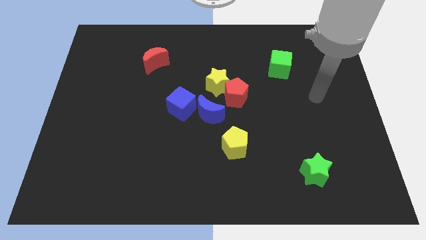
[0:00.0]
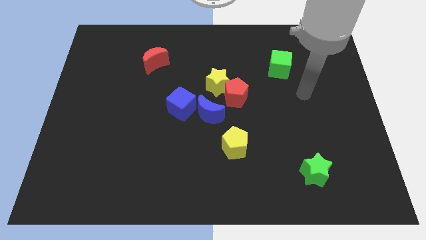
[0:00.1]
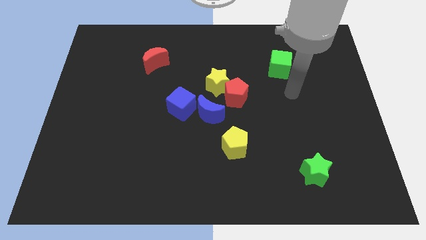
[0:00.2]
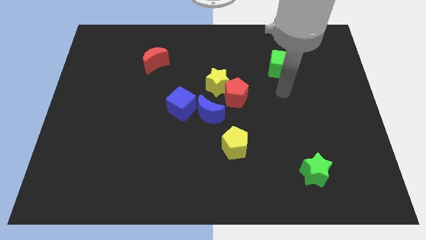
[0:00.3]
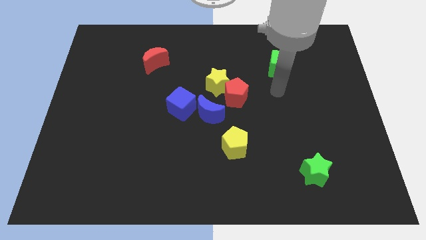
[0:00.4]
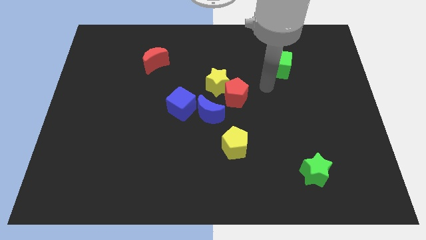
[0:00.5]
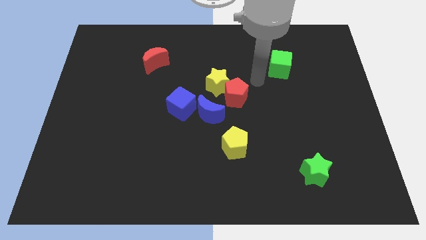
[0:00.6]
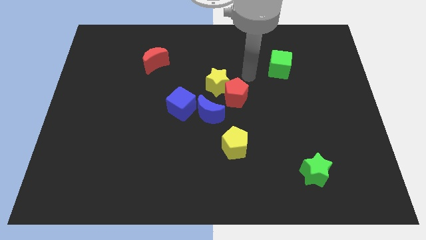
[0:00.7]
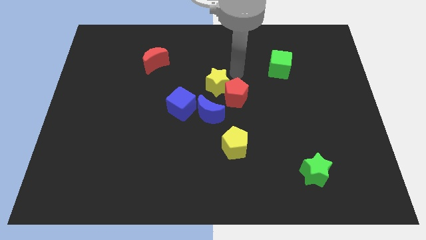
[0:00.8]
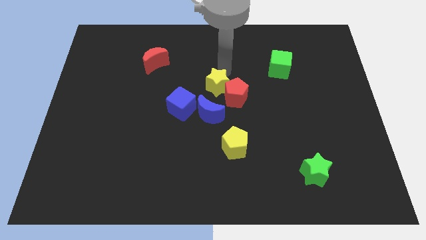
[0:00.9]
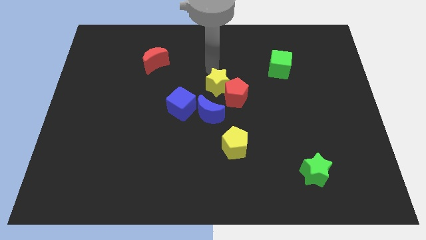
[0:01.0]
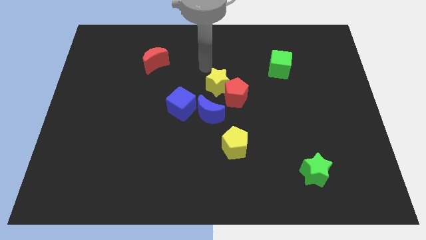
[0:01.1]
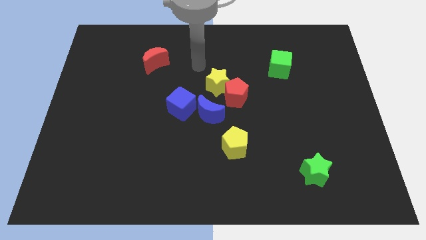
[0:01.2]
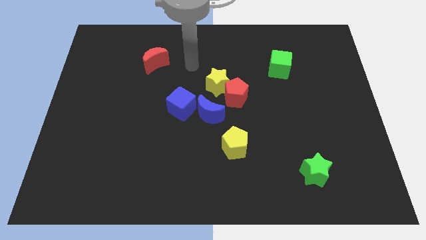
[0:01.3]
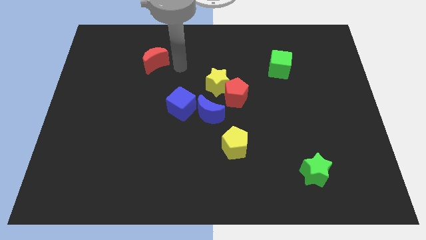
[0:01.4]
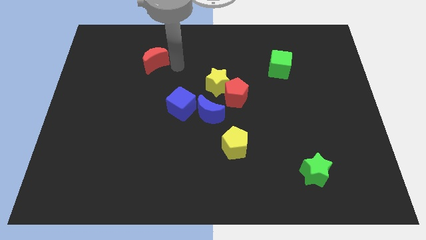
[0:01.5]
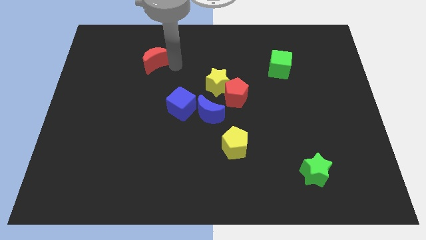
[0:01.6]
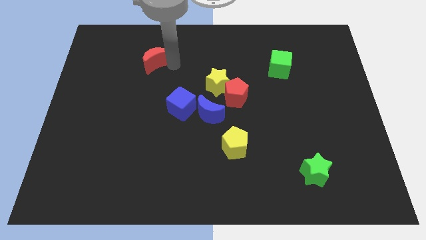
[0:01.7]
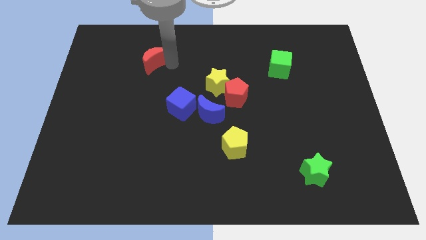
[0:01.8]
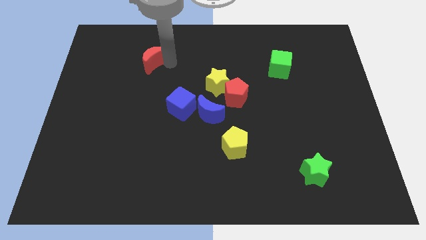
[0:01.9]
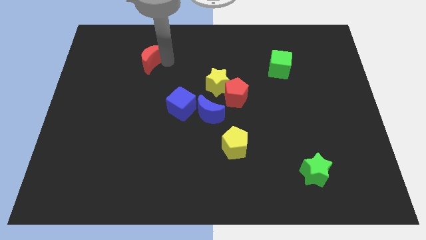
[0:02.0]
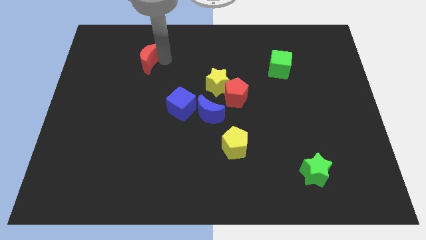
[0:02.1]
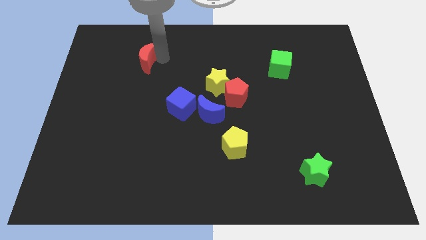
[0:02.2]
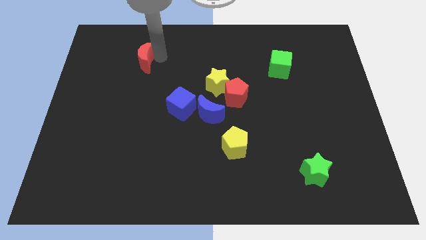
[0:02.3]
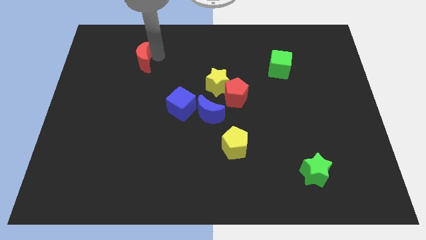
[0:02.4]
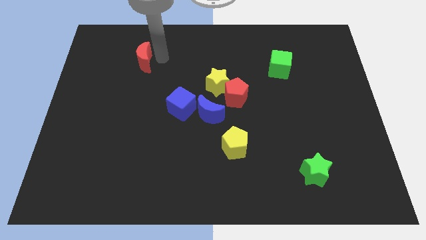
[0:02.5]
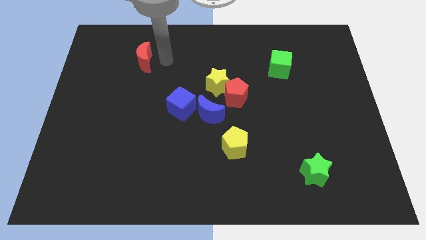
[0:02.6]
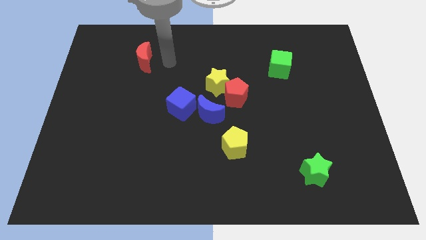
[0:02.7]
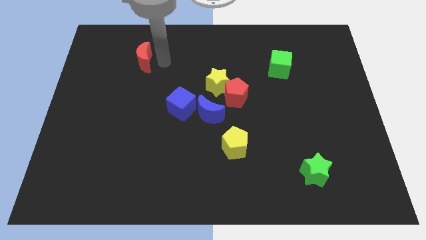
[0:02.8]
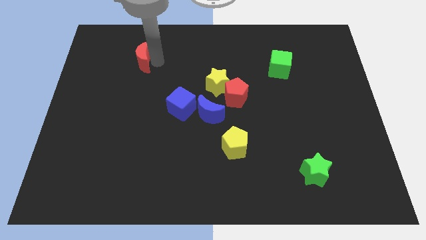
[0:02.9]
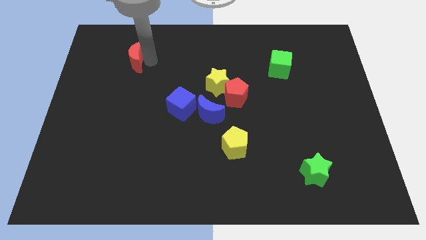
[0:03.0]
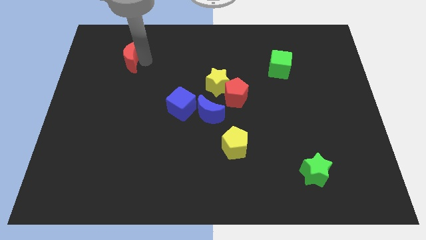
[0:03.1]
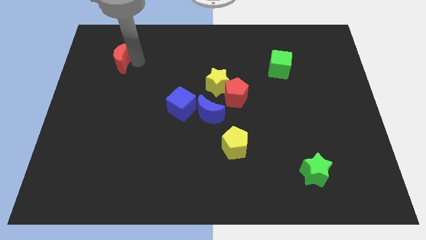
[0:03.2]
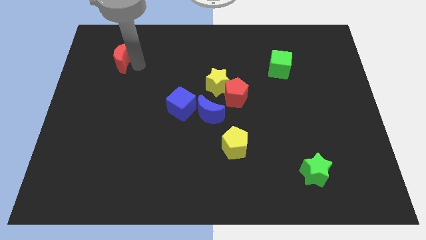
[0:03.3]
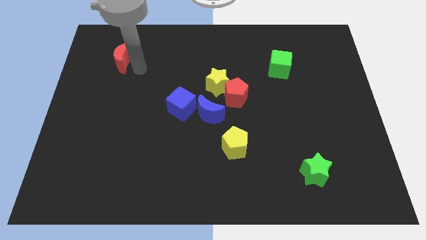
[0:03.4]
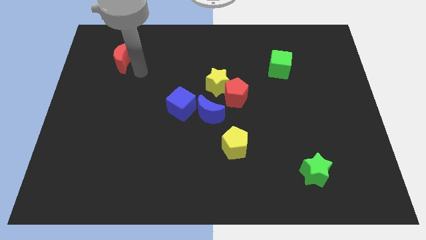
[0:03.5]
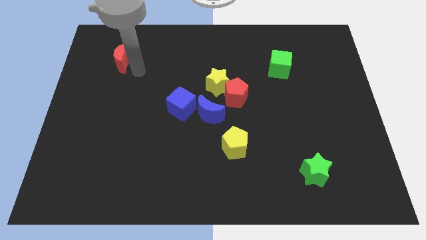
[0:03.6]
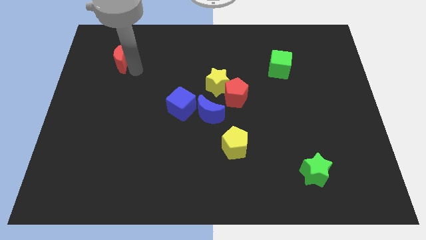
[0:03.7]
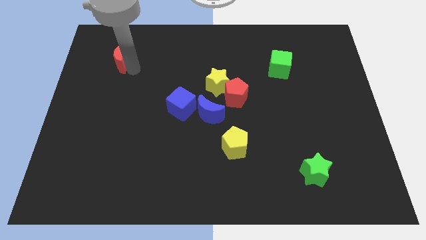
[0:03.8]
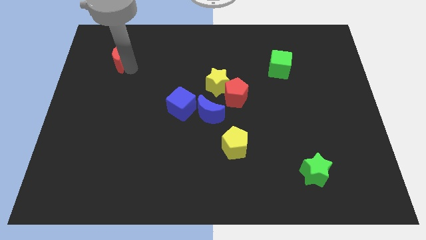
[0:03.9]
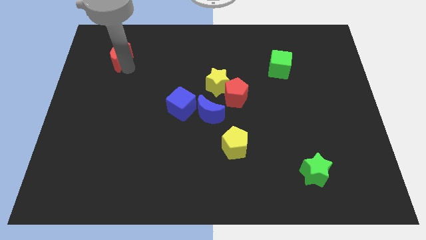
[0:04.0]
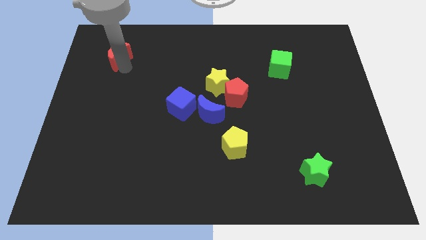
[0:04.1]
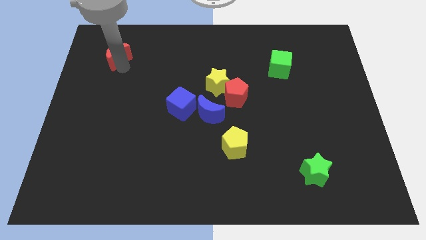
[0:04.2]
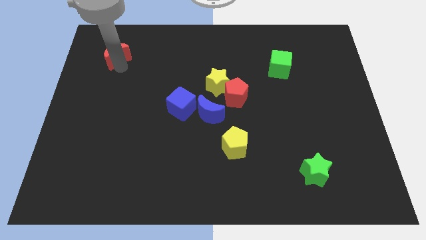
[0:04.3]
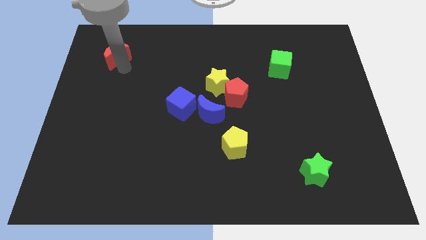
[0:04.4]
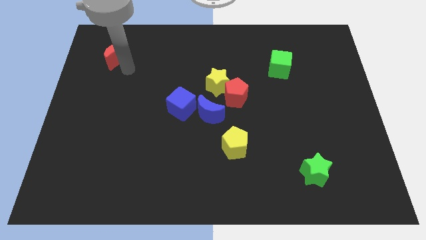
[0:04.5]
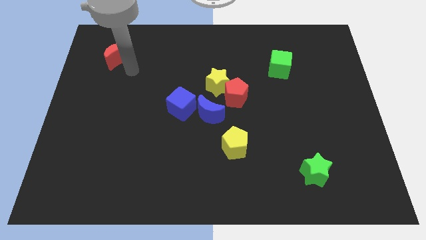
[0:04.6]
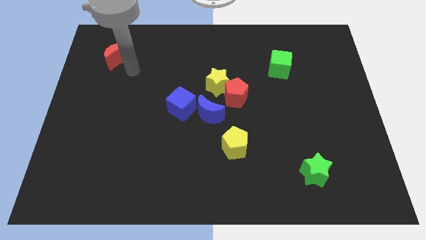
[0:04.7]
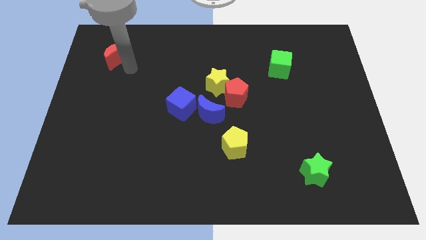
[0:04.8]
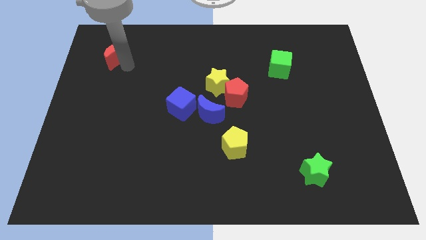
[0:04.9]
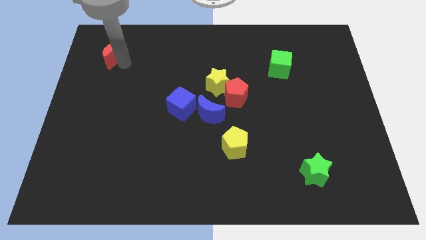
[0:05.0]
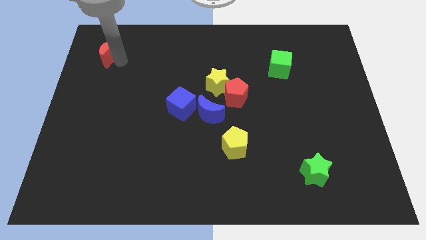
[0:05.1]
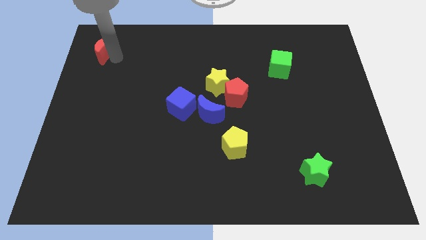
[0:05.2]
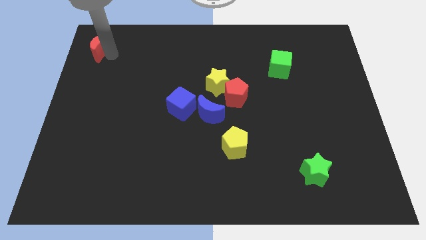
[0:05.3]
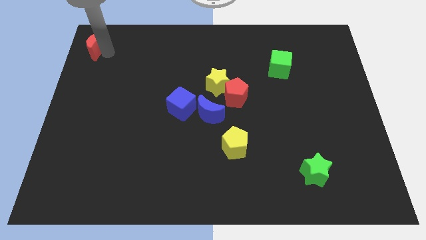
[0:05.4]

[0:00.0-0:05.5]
push the red moon to the upper left corner

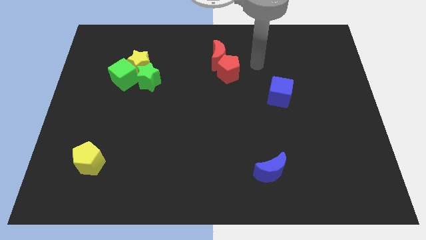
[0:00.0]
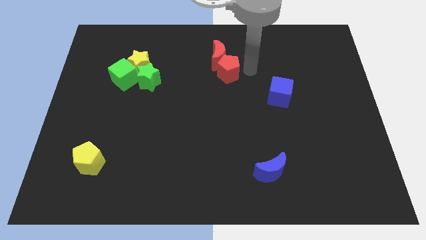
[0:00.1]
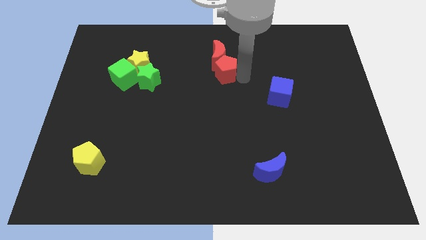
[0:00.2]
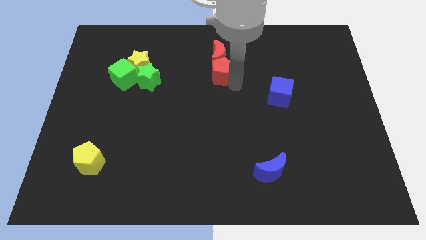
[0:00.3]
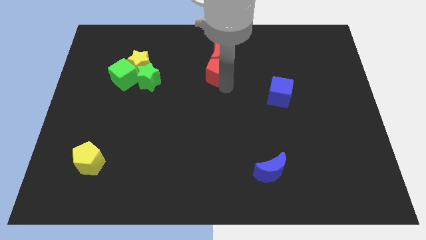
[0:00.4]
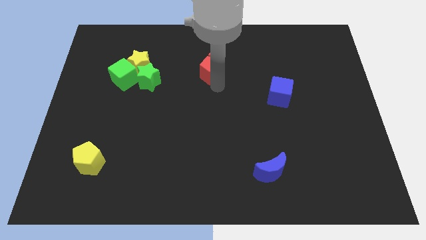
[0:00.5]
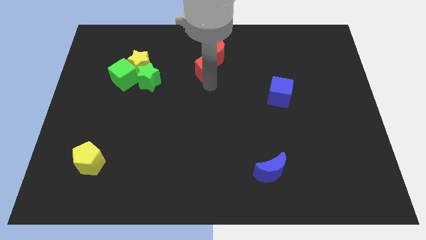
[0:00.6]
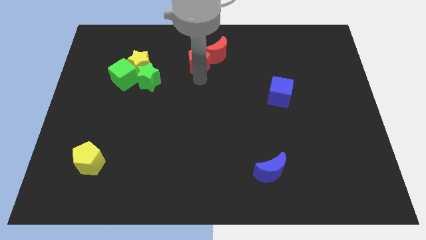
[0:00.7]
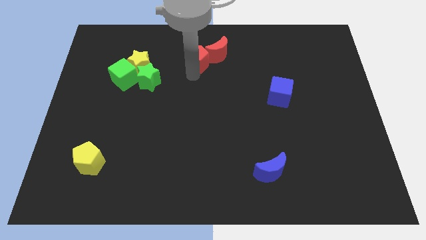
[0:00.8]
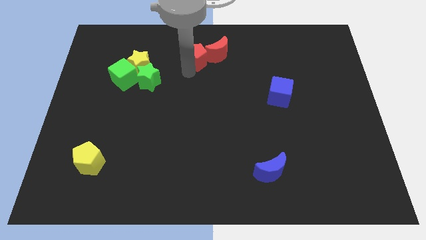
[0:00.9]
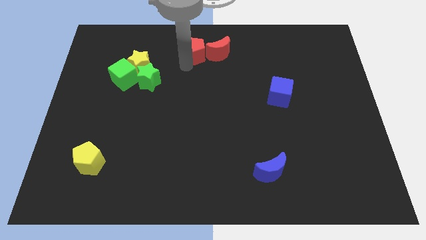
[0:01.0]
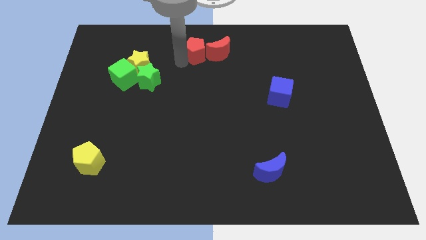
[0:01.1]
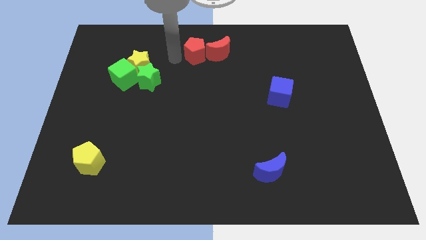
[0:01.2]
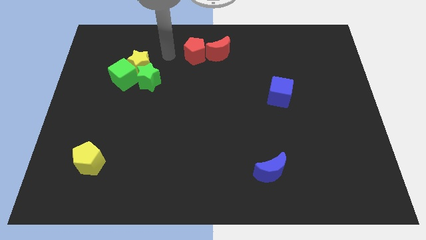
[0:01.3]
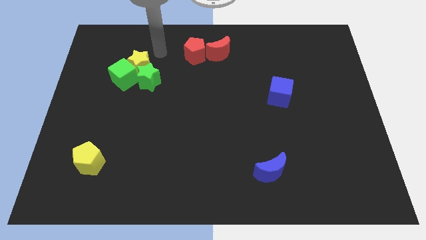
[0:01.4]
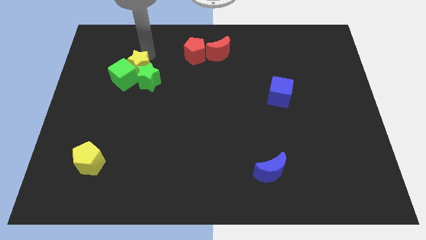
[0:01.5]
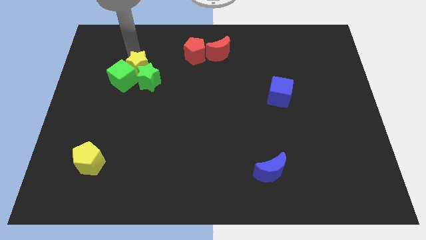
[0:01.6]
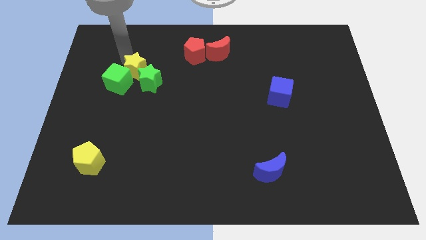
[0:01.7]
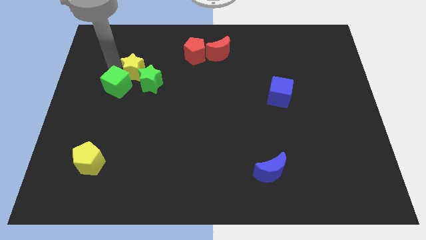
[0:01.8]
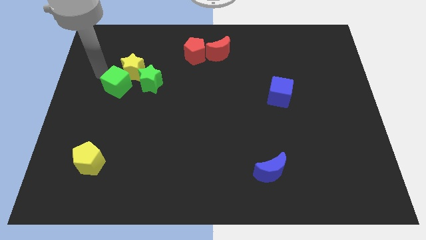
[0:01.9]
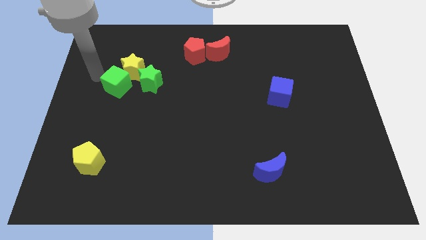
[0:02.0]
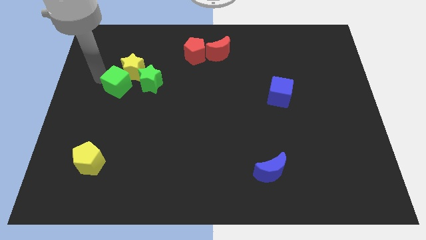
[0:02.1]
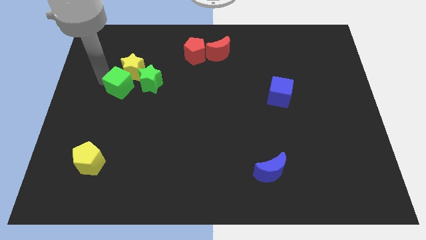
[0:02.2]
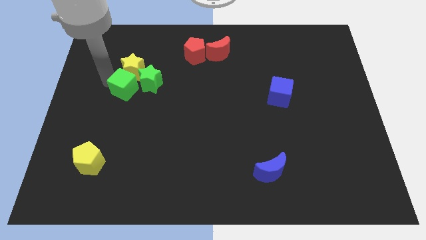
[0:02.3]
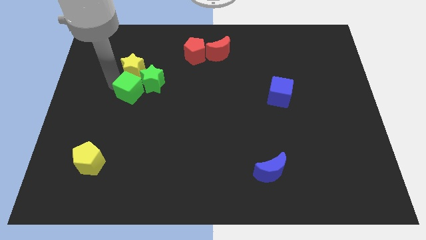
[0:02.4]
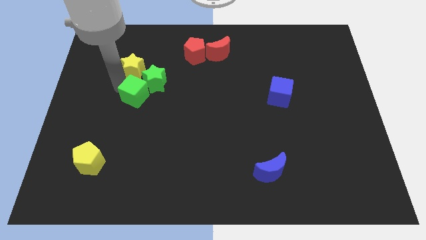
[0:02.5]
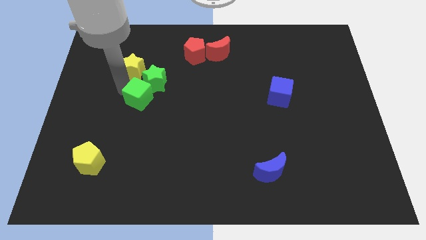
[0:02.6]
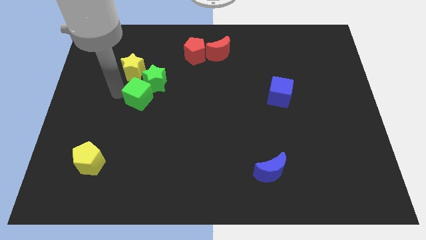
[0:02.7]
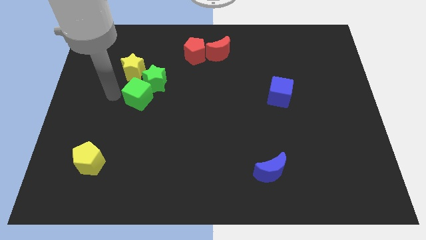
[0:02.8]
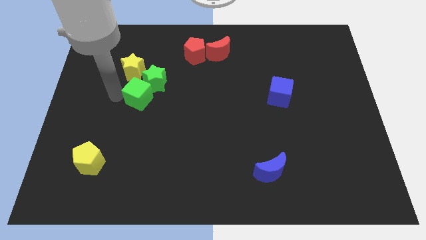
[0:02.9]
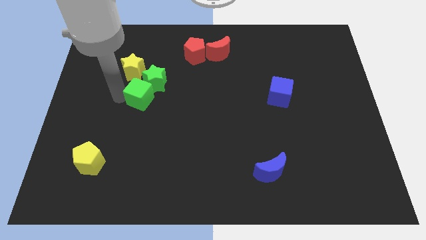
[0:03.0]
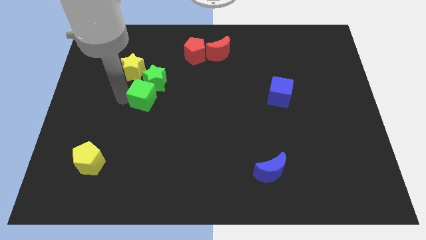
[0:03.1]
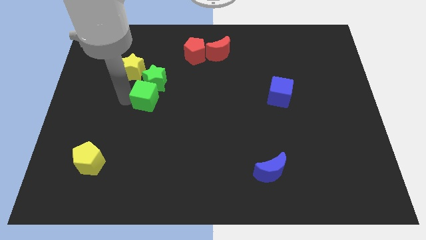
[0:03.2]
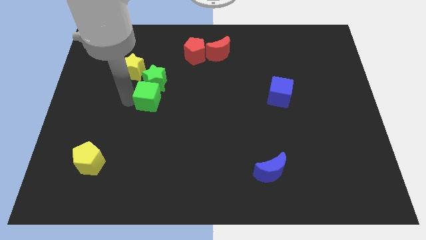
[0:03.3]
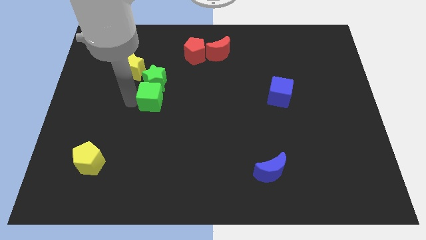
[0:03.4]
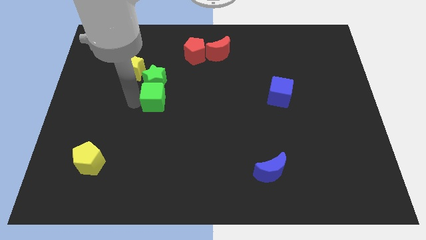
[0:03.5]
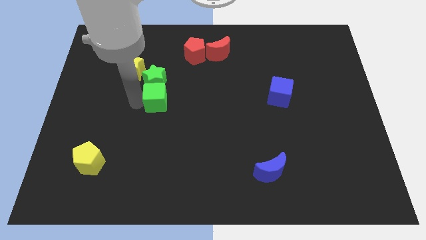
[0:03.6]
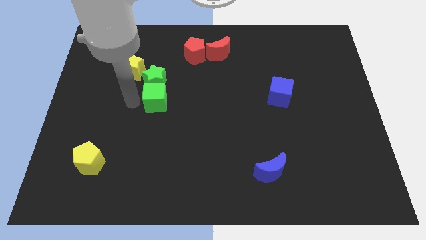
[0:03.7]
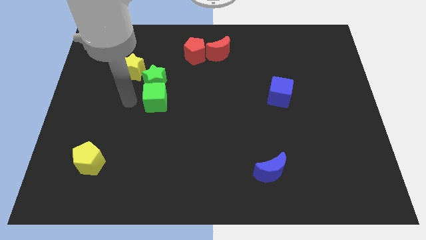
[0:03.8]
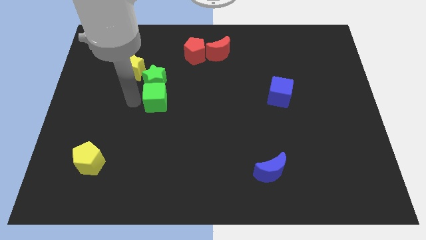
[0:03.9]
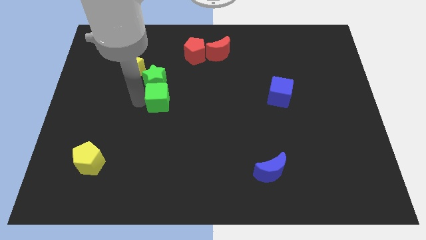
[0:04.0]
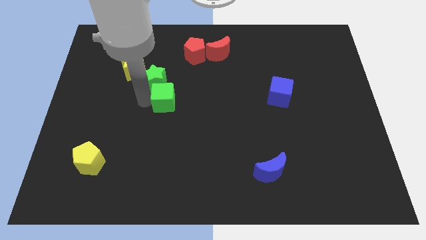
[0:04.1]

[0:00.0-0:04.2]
put the green cube to the center of the board
